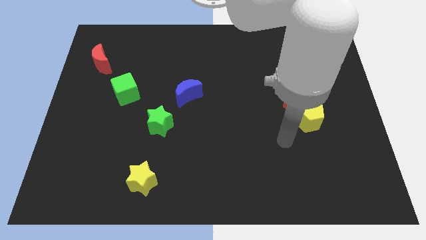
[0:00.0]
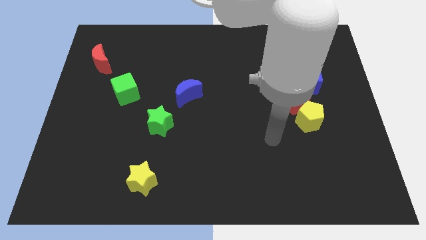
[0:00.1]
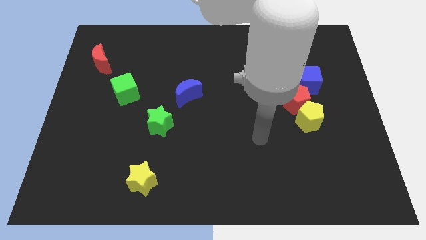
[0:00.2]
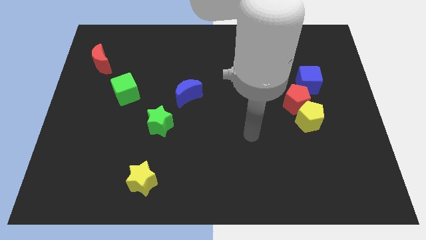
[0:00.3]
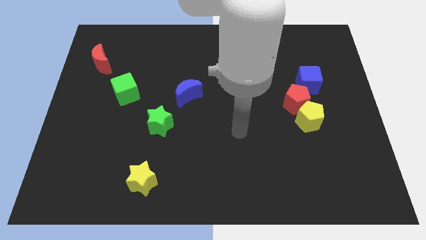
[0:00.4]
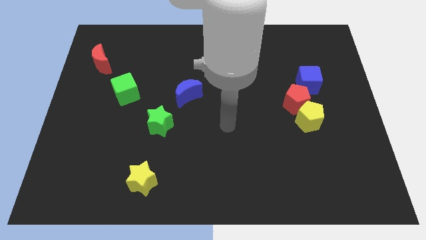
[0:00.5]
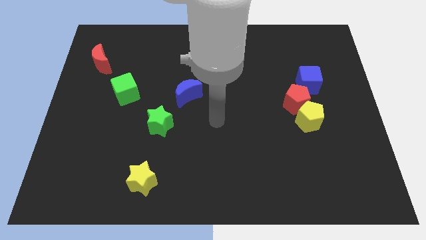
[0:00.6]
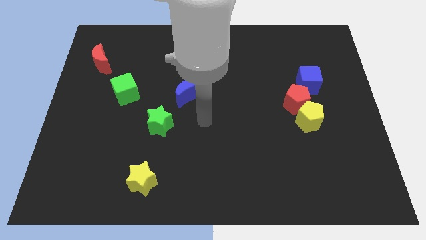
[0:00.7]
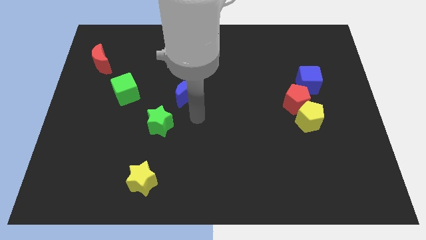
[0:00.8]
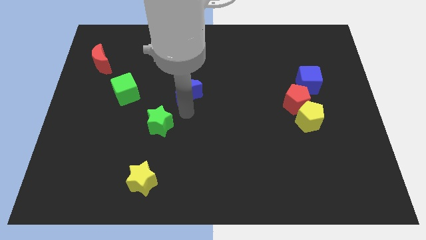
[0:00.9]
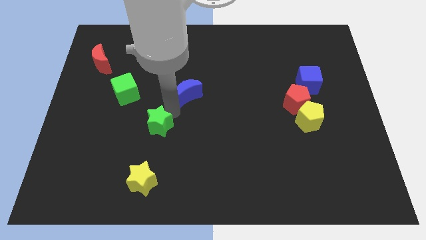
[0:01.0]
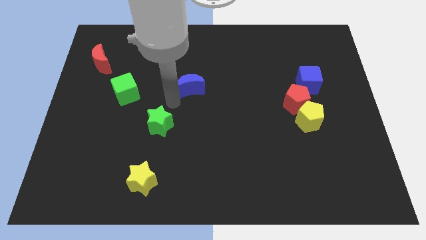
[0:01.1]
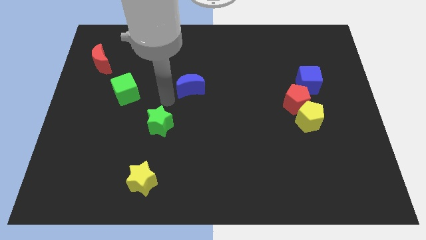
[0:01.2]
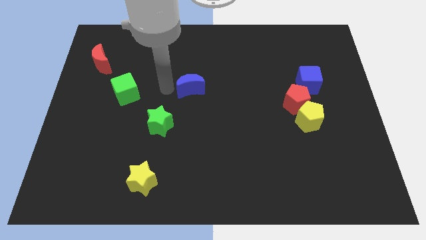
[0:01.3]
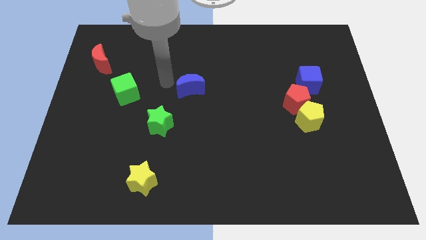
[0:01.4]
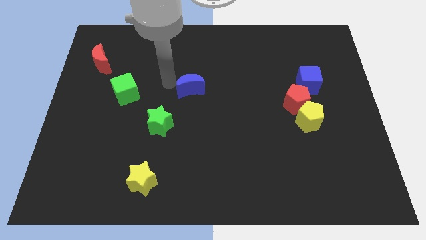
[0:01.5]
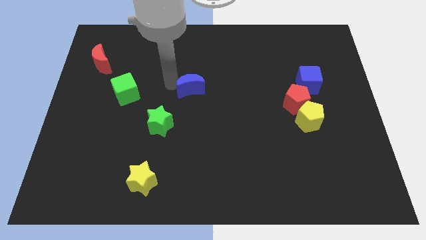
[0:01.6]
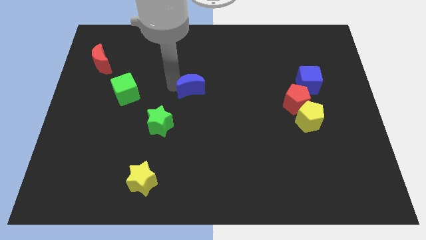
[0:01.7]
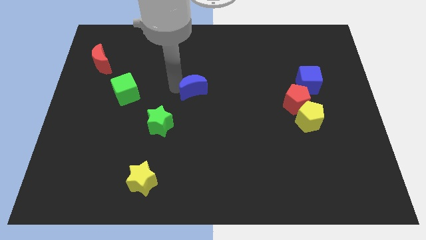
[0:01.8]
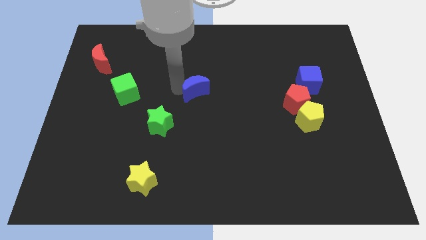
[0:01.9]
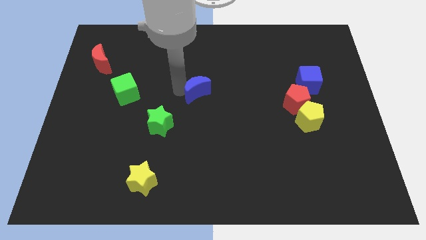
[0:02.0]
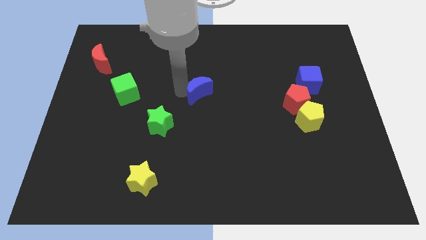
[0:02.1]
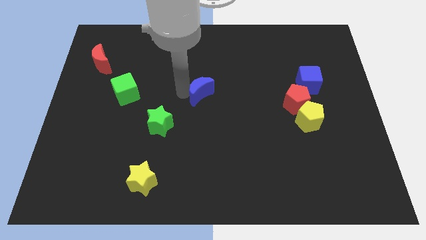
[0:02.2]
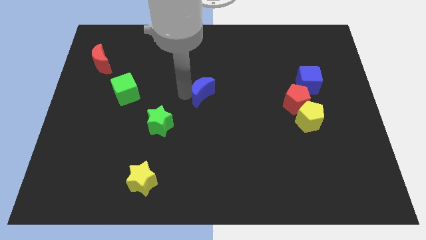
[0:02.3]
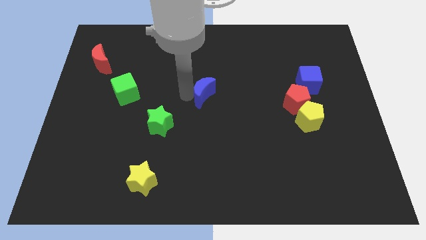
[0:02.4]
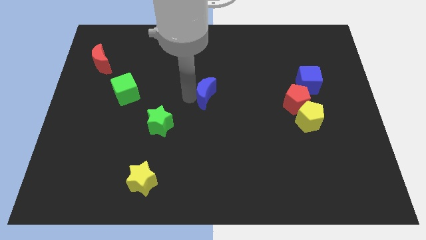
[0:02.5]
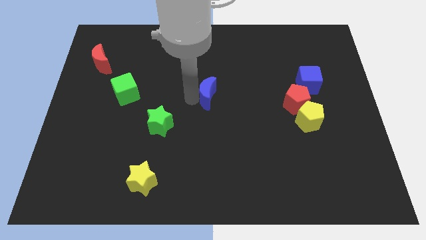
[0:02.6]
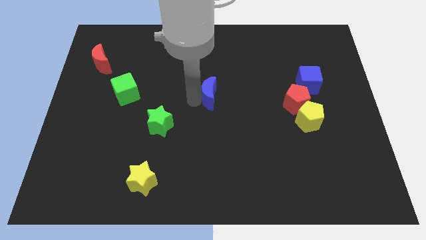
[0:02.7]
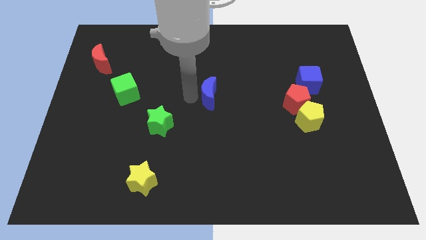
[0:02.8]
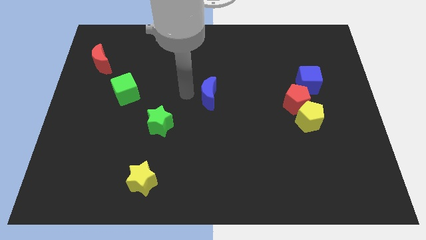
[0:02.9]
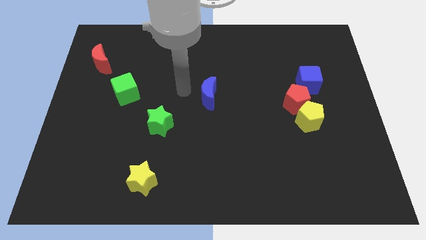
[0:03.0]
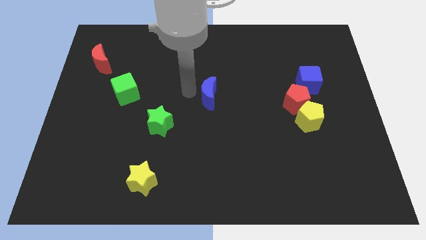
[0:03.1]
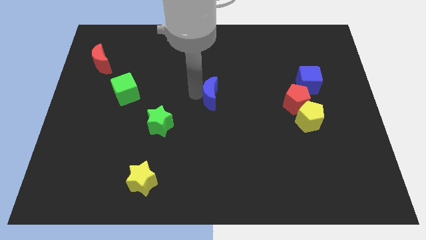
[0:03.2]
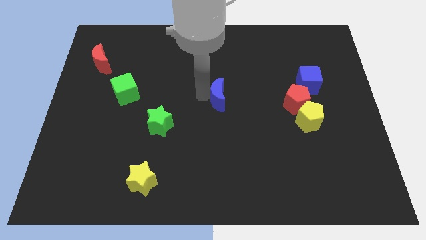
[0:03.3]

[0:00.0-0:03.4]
slightly slide the blue moon to the right

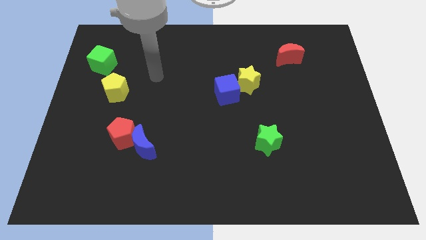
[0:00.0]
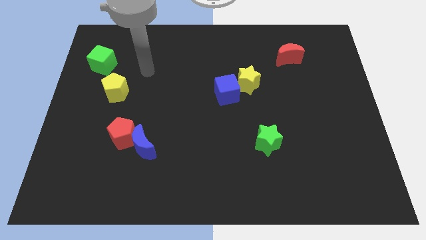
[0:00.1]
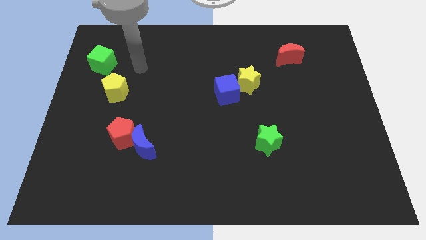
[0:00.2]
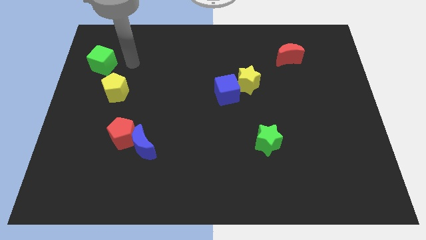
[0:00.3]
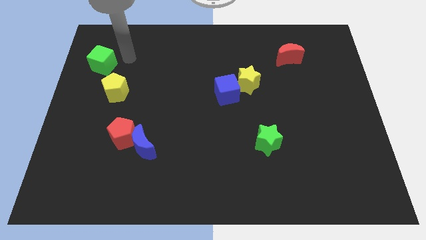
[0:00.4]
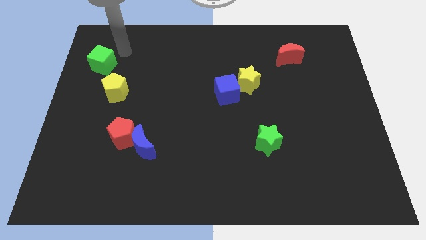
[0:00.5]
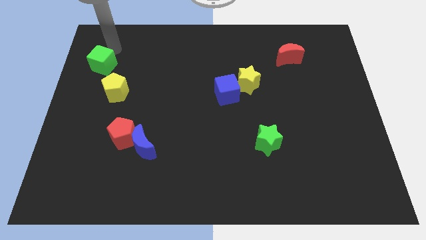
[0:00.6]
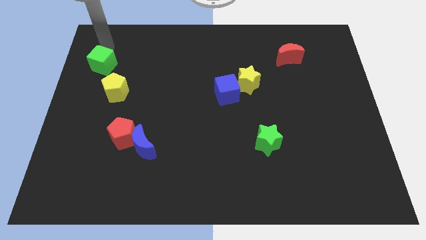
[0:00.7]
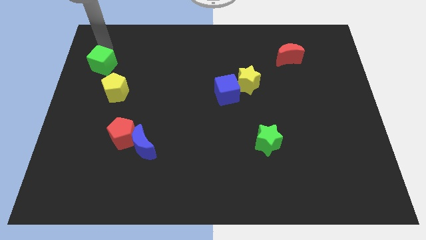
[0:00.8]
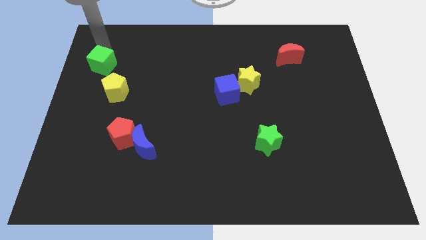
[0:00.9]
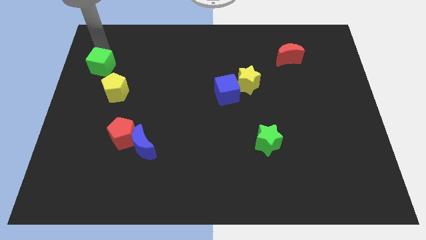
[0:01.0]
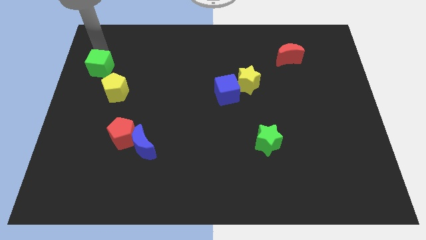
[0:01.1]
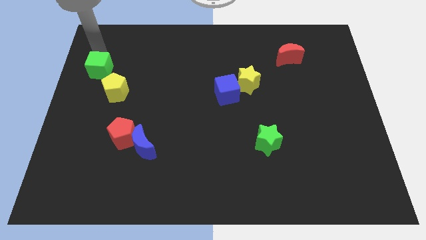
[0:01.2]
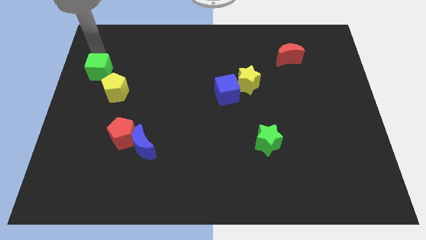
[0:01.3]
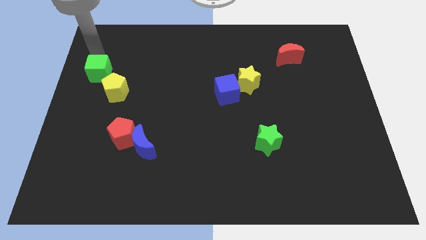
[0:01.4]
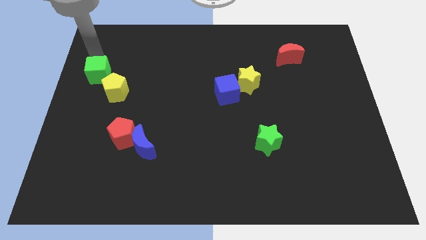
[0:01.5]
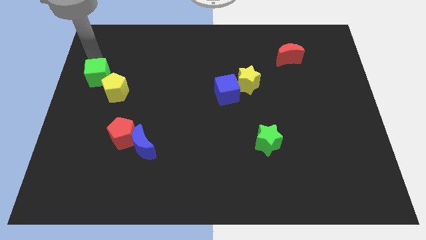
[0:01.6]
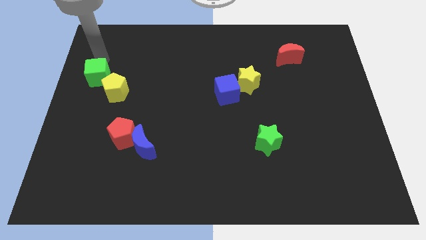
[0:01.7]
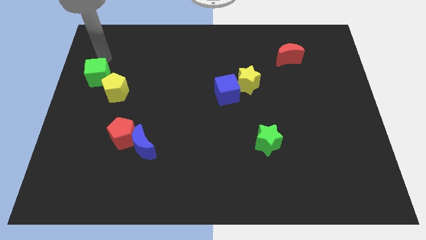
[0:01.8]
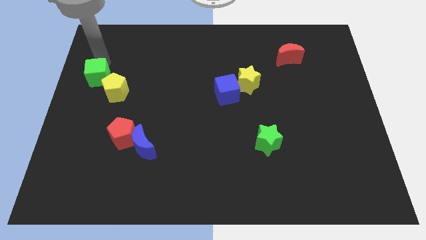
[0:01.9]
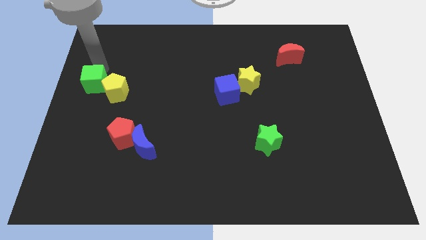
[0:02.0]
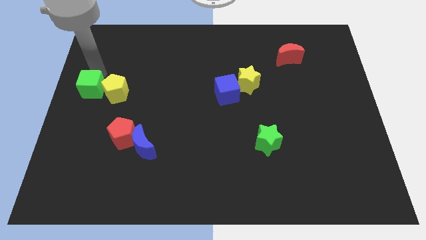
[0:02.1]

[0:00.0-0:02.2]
slightly push the green cube down

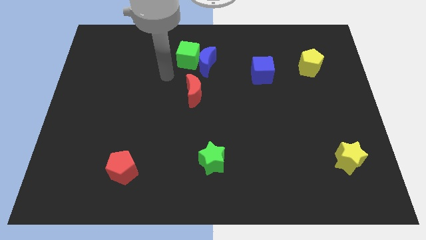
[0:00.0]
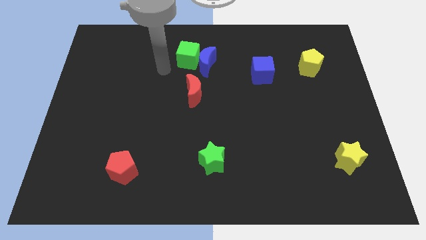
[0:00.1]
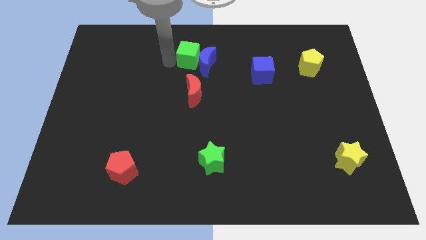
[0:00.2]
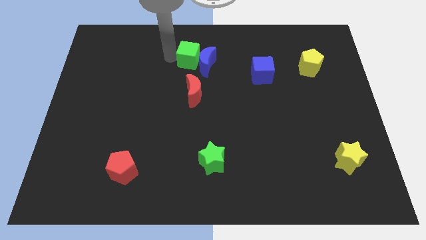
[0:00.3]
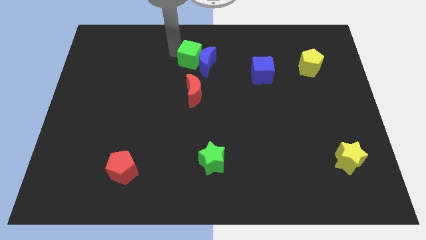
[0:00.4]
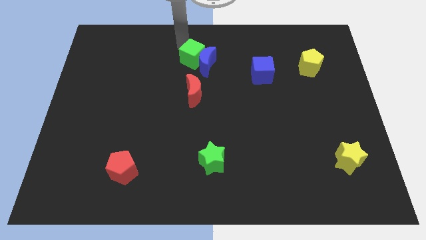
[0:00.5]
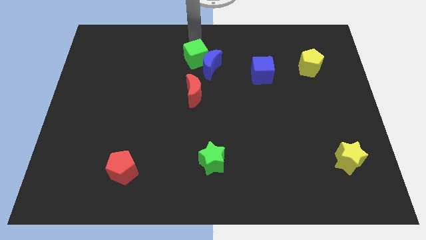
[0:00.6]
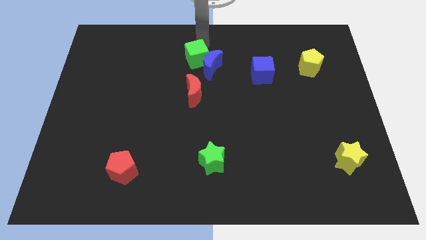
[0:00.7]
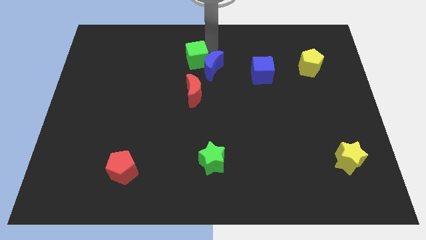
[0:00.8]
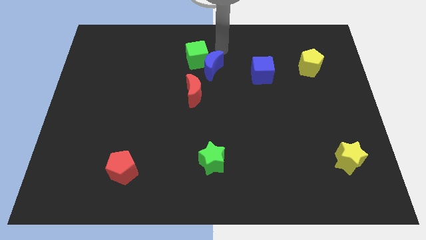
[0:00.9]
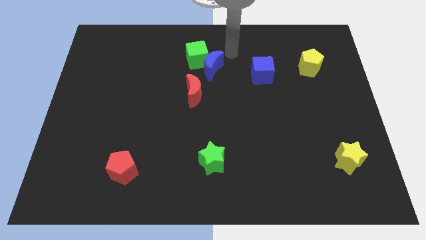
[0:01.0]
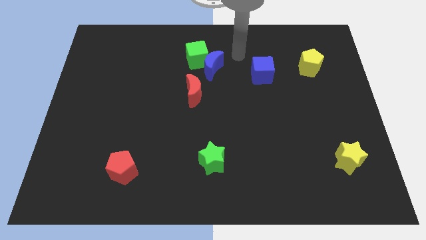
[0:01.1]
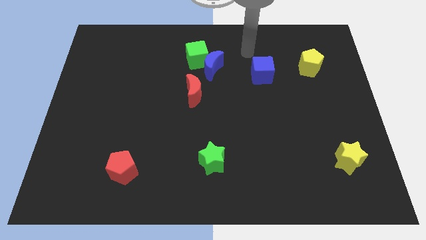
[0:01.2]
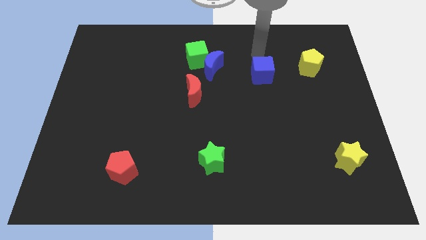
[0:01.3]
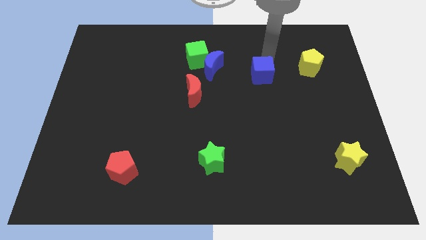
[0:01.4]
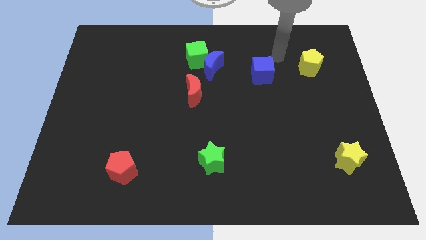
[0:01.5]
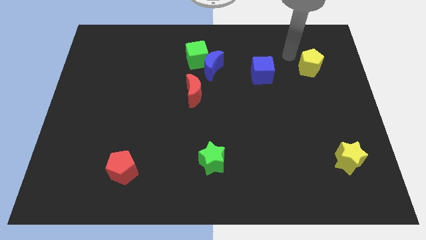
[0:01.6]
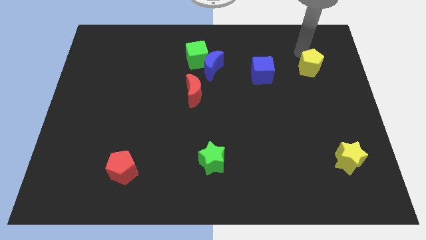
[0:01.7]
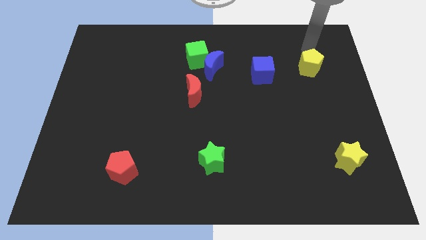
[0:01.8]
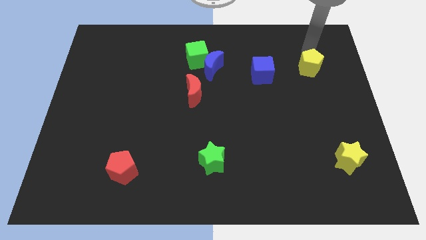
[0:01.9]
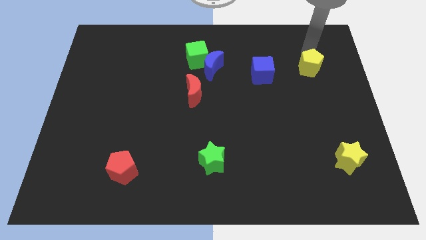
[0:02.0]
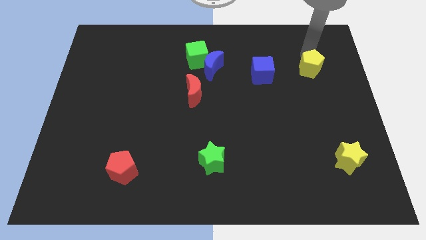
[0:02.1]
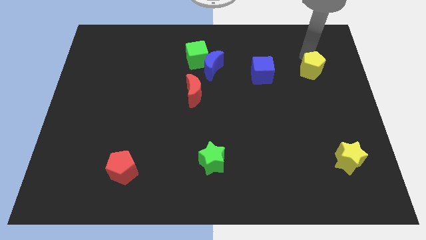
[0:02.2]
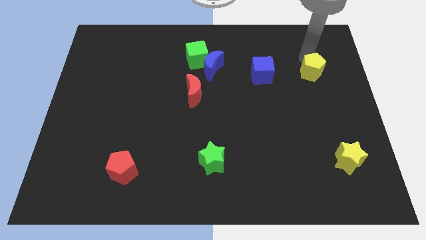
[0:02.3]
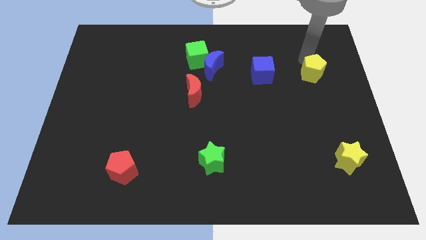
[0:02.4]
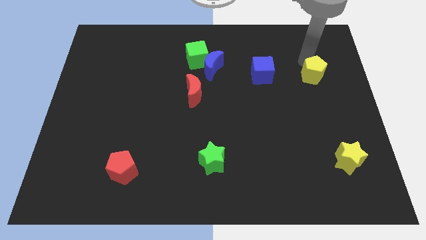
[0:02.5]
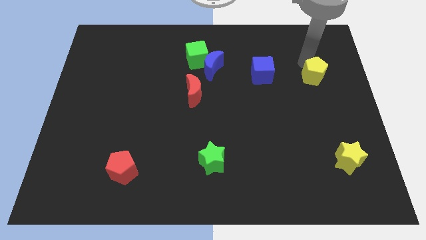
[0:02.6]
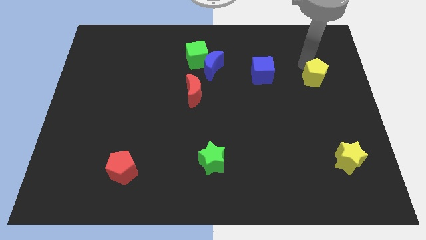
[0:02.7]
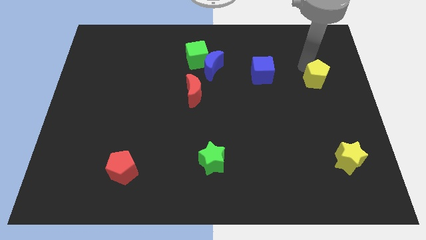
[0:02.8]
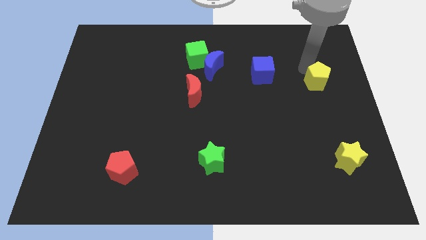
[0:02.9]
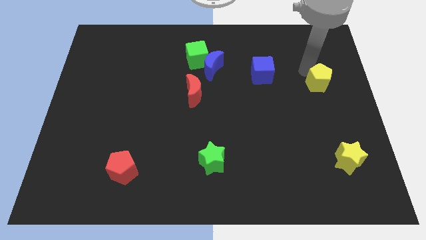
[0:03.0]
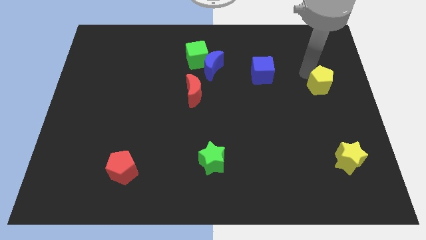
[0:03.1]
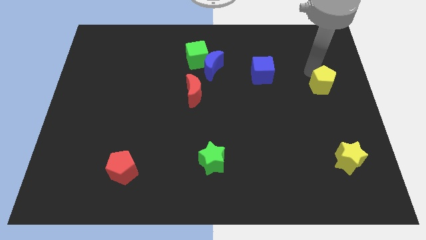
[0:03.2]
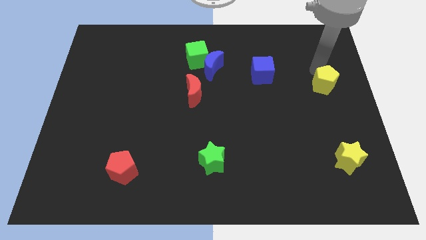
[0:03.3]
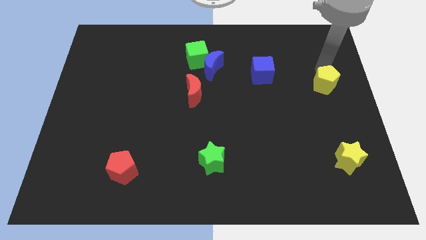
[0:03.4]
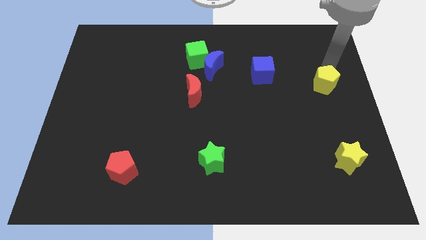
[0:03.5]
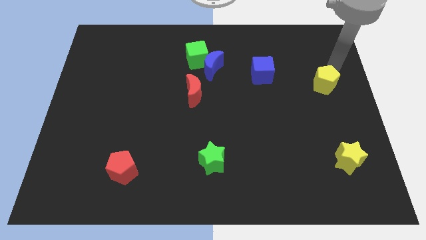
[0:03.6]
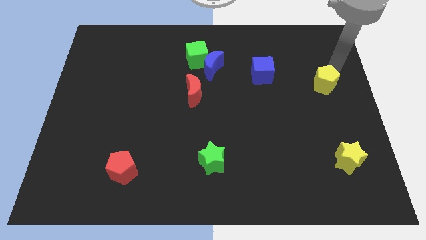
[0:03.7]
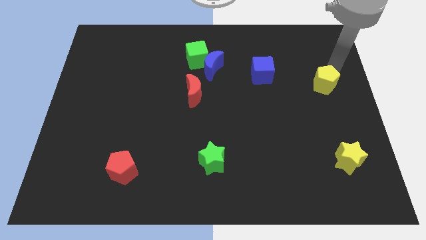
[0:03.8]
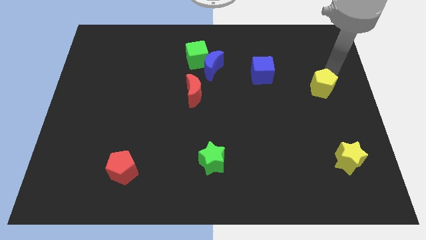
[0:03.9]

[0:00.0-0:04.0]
move the yellow pentagon downwards somewhat
